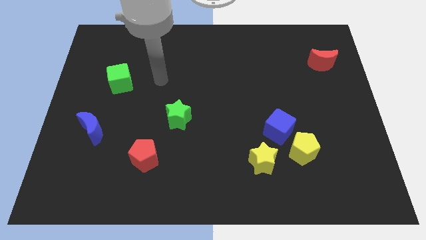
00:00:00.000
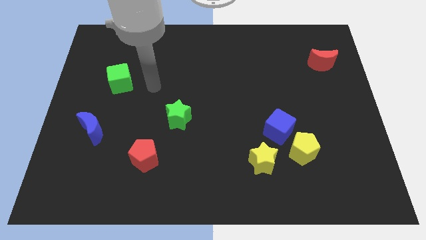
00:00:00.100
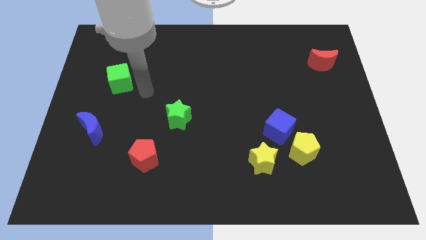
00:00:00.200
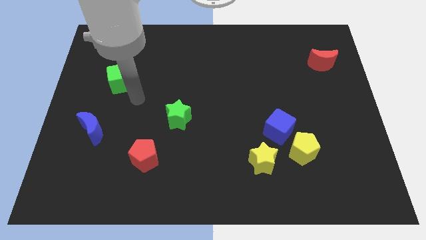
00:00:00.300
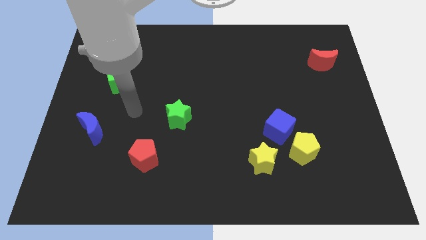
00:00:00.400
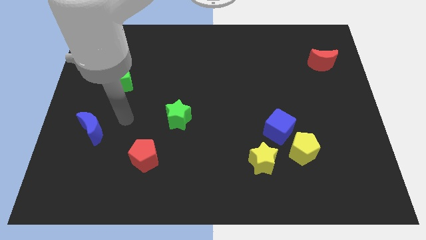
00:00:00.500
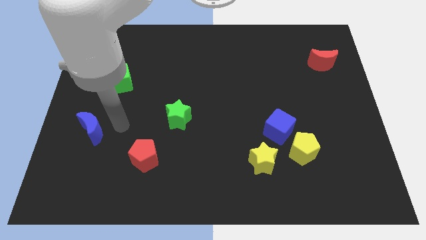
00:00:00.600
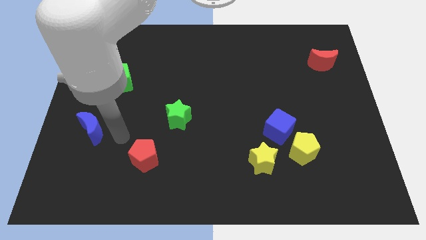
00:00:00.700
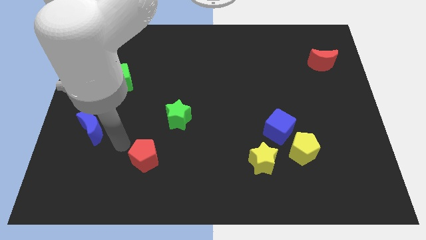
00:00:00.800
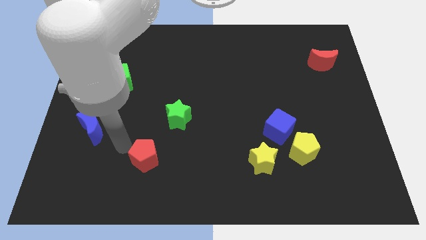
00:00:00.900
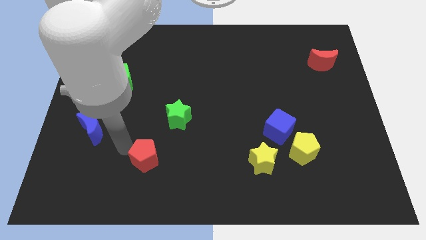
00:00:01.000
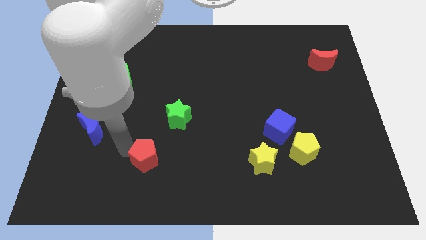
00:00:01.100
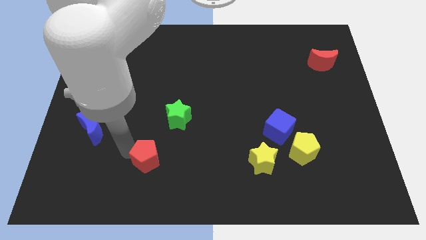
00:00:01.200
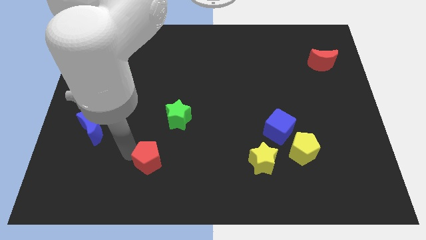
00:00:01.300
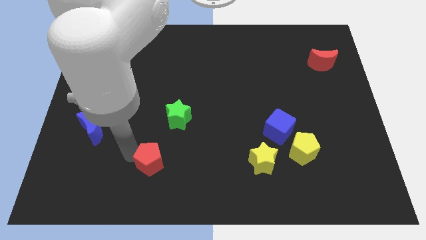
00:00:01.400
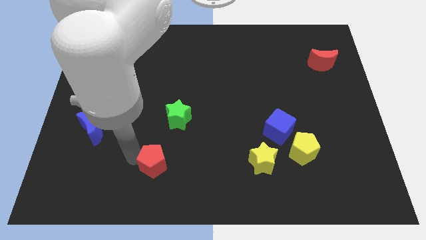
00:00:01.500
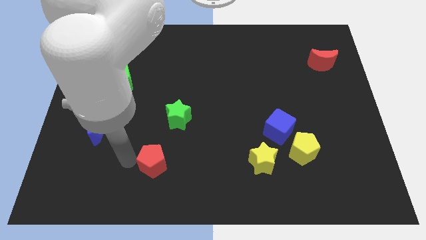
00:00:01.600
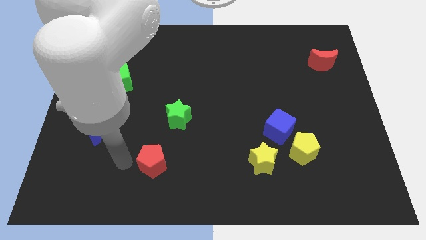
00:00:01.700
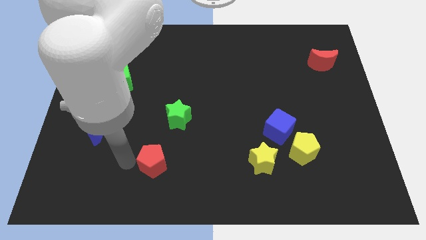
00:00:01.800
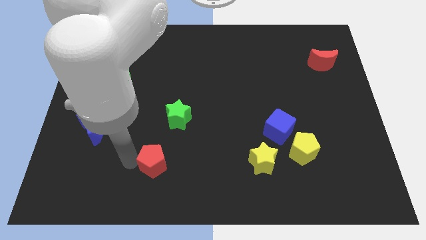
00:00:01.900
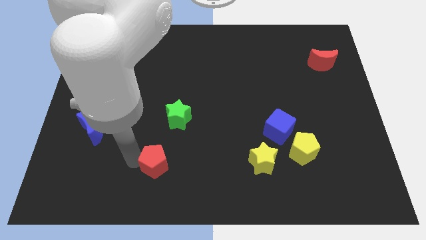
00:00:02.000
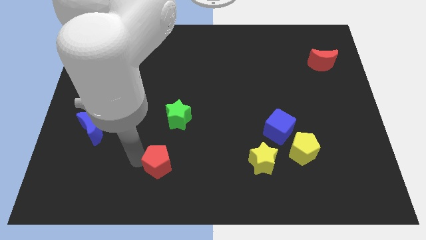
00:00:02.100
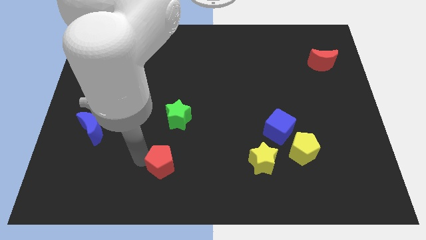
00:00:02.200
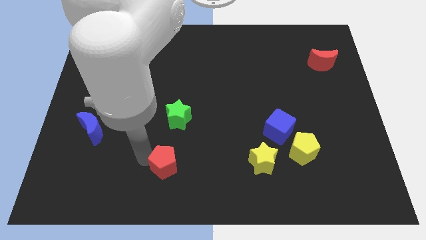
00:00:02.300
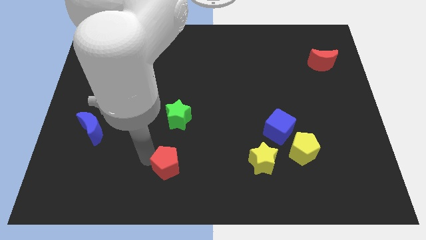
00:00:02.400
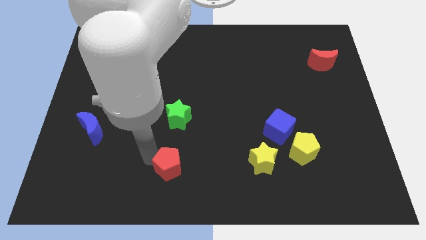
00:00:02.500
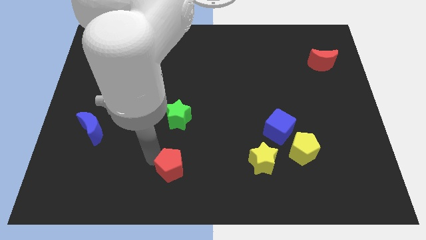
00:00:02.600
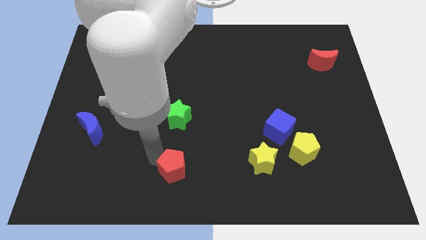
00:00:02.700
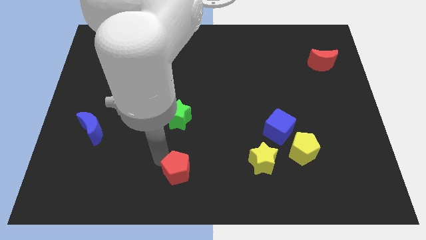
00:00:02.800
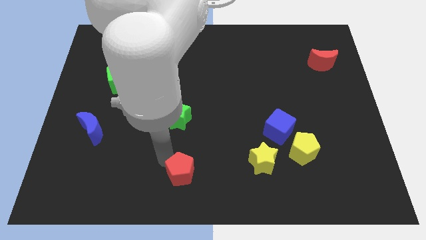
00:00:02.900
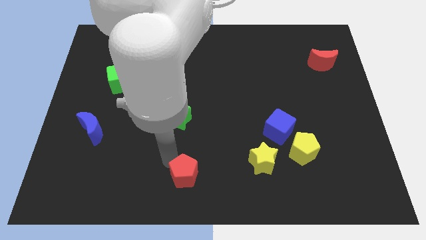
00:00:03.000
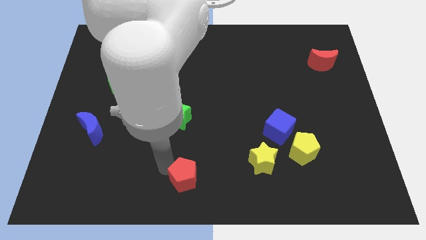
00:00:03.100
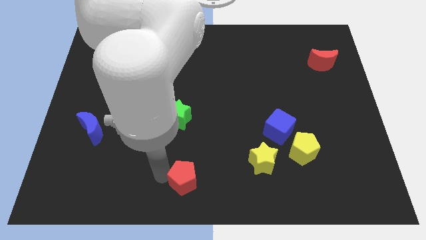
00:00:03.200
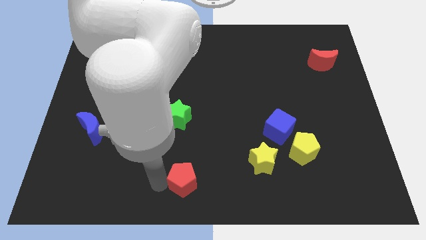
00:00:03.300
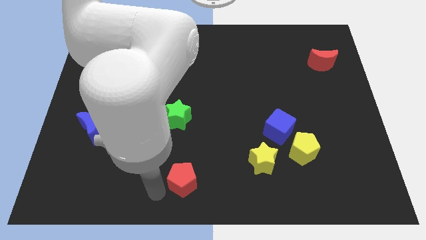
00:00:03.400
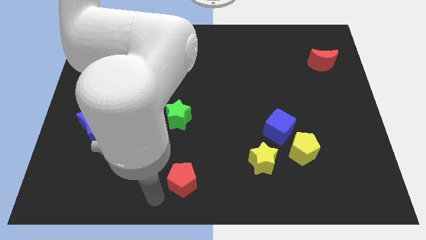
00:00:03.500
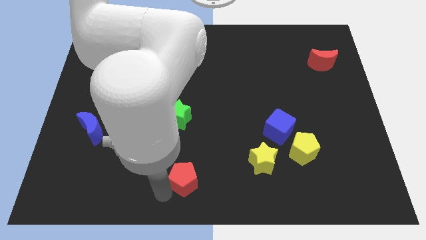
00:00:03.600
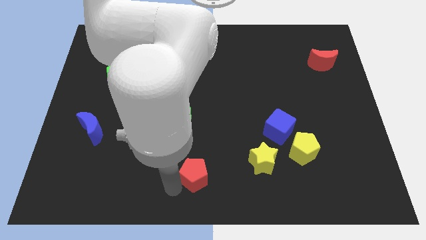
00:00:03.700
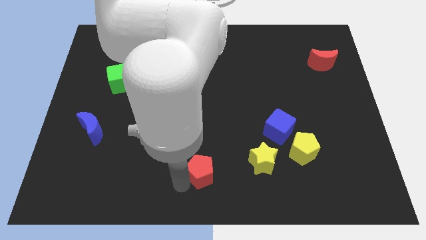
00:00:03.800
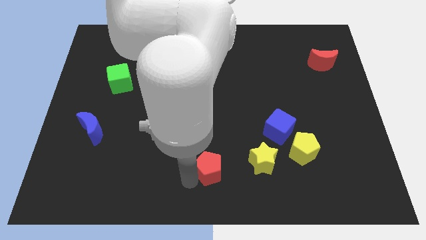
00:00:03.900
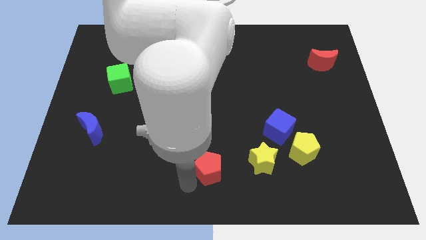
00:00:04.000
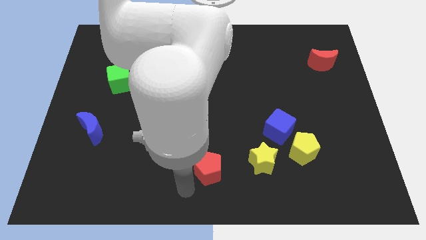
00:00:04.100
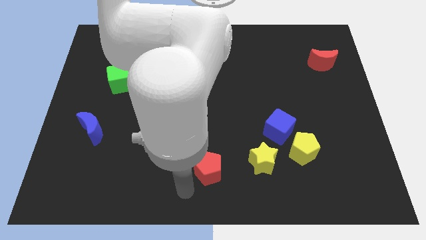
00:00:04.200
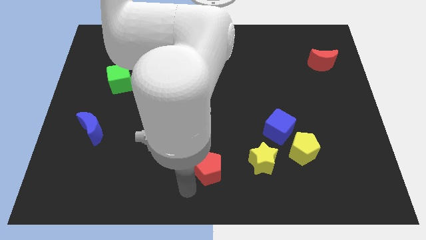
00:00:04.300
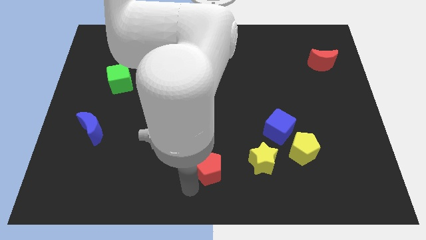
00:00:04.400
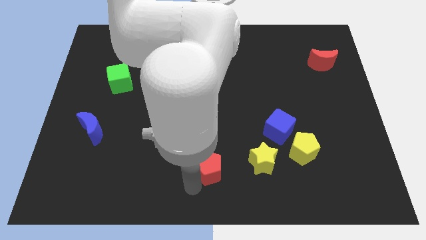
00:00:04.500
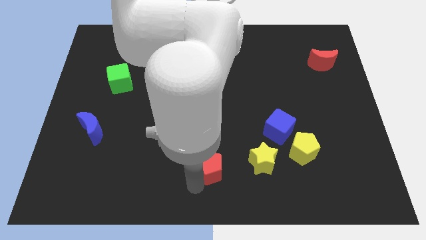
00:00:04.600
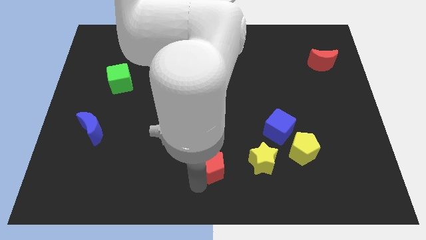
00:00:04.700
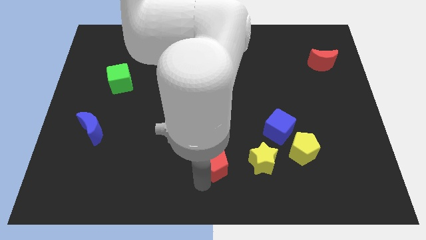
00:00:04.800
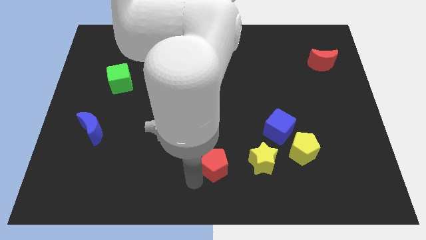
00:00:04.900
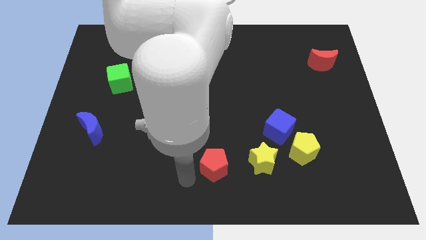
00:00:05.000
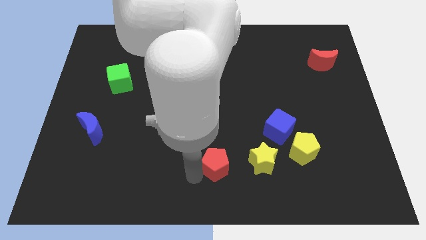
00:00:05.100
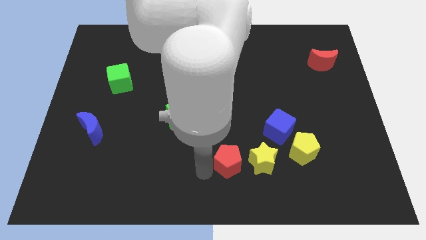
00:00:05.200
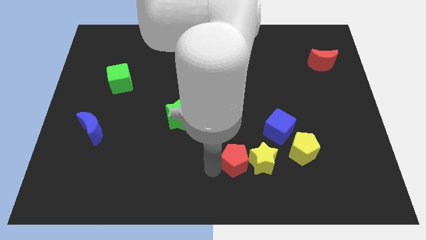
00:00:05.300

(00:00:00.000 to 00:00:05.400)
slide the red pentagon to the left of the yellow pentagon

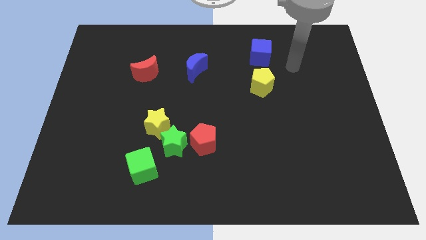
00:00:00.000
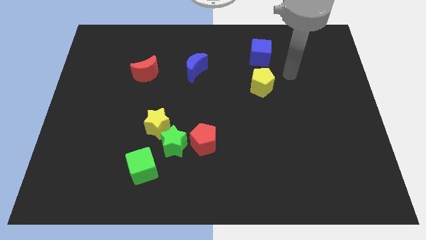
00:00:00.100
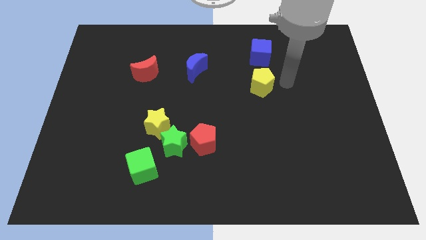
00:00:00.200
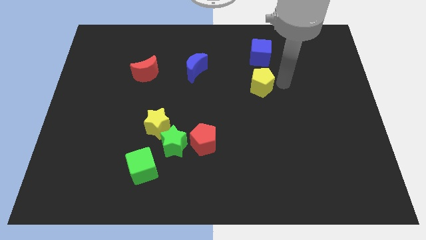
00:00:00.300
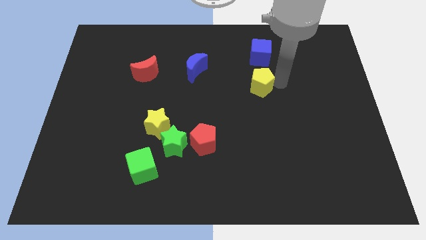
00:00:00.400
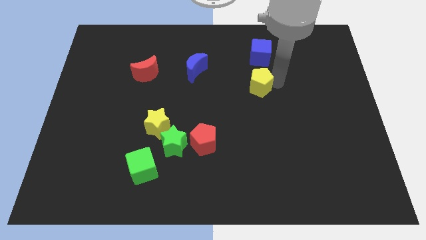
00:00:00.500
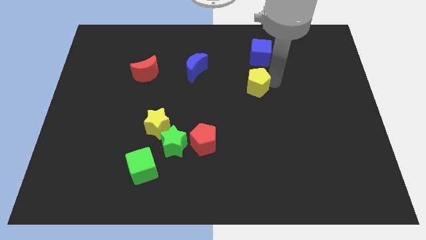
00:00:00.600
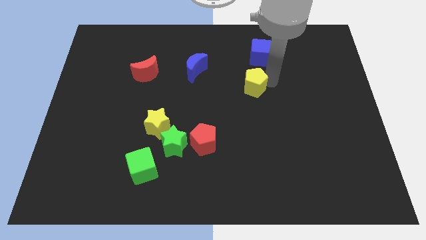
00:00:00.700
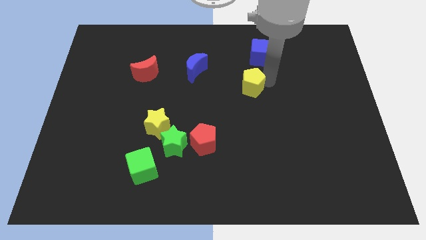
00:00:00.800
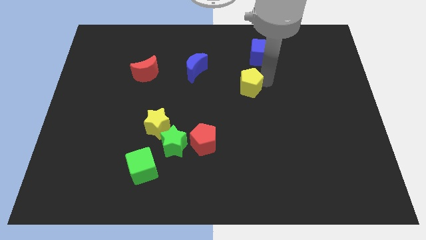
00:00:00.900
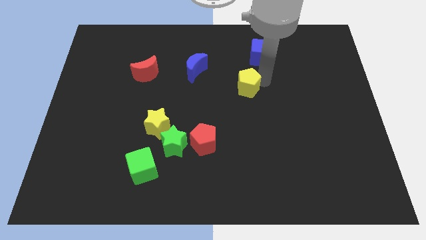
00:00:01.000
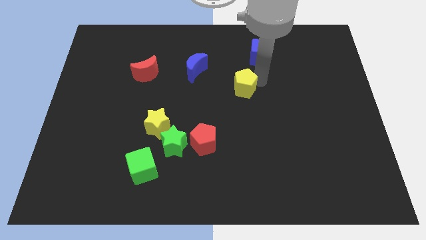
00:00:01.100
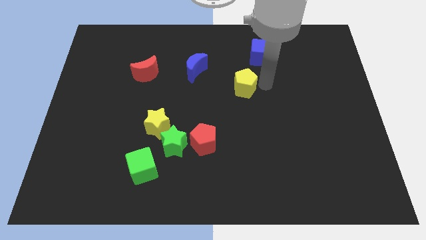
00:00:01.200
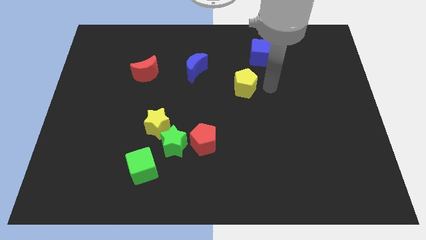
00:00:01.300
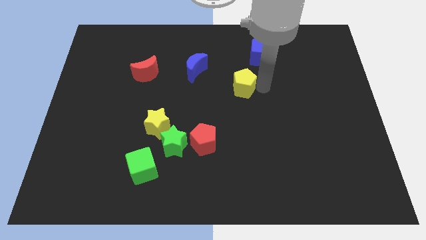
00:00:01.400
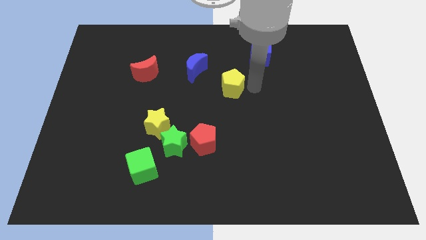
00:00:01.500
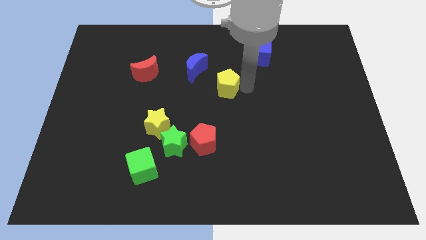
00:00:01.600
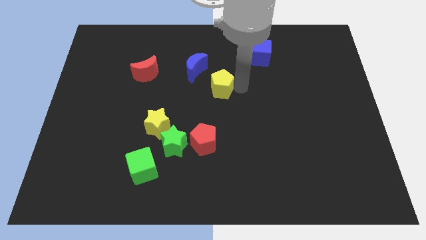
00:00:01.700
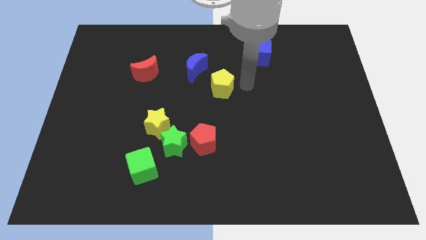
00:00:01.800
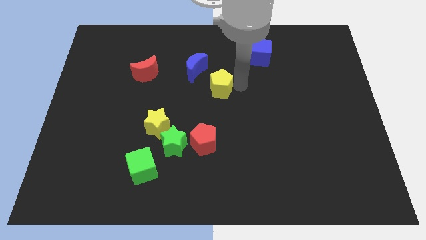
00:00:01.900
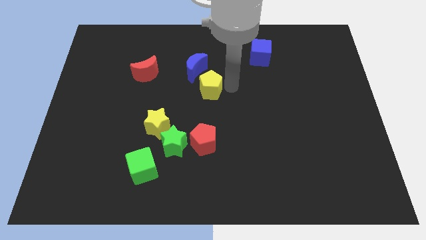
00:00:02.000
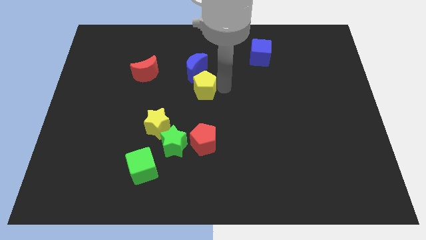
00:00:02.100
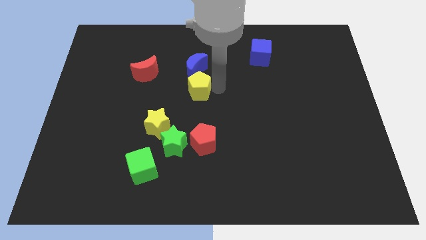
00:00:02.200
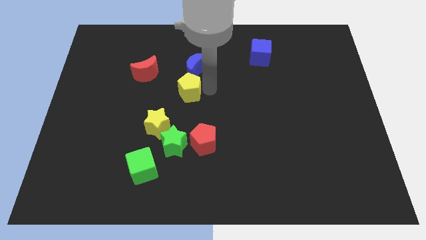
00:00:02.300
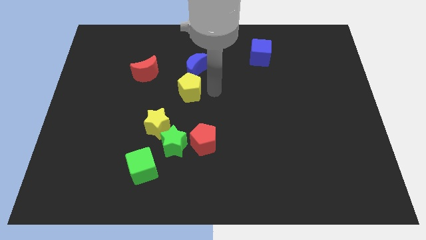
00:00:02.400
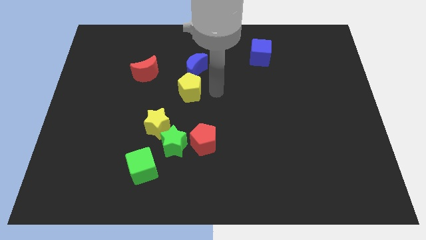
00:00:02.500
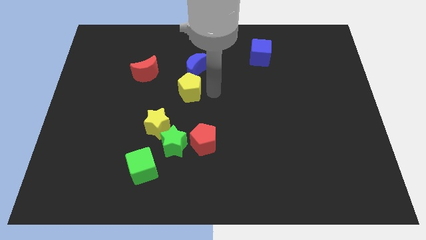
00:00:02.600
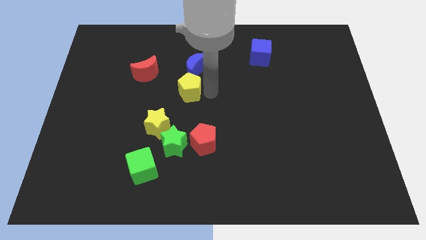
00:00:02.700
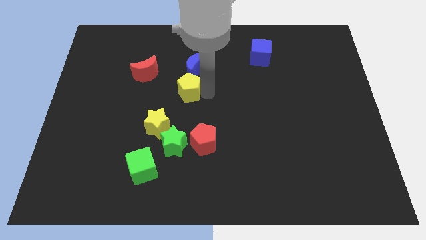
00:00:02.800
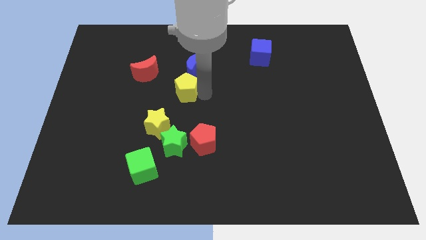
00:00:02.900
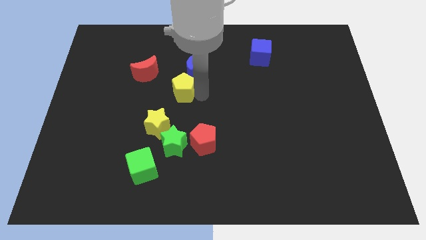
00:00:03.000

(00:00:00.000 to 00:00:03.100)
move the yellow pentagon above the yellow star
